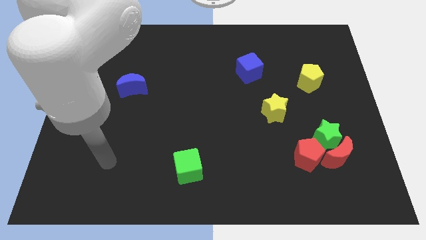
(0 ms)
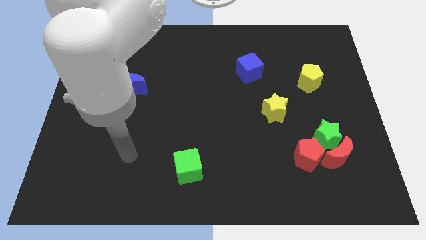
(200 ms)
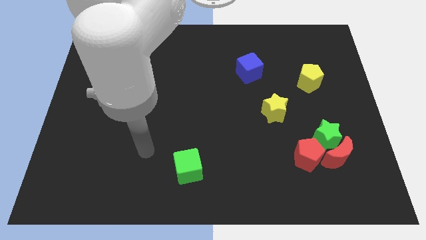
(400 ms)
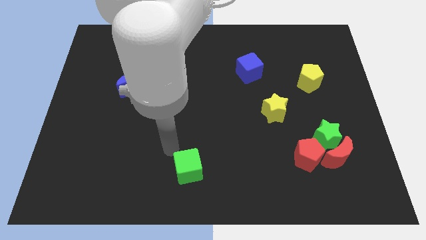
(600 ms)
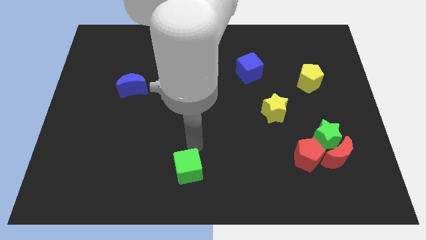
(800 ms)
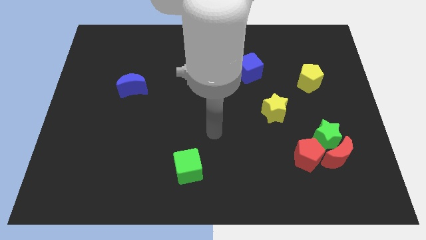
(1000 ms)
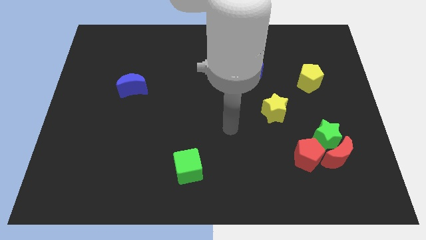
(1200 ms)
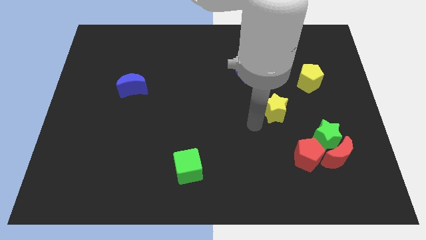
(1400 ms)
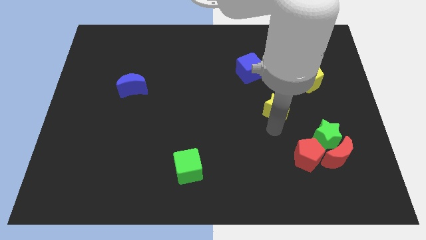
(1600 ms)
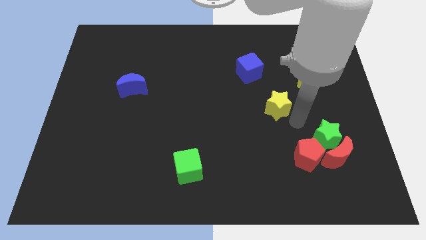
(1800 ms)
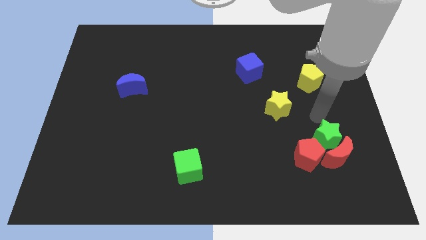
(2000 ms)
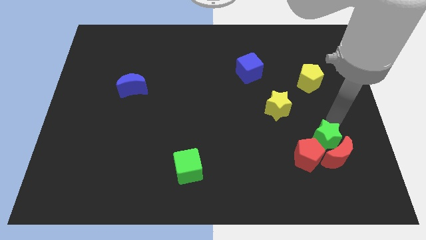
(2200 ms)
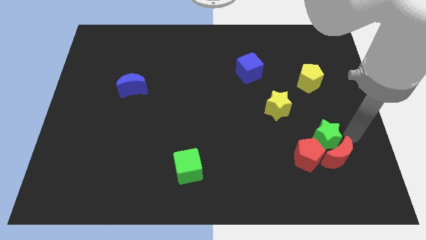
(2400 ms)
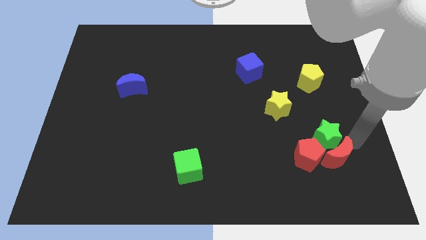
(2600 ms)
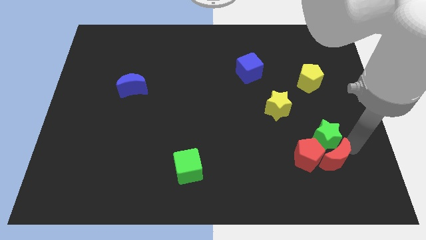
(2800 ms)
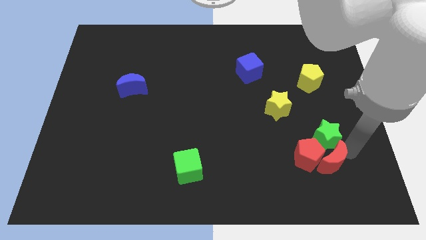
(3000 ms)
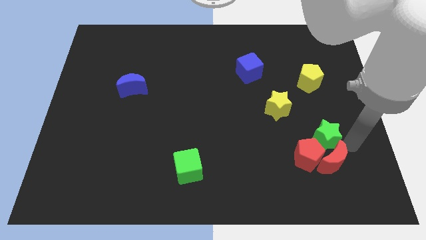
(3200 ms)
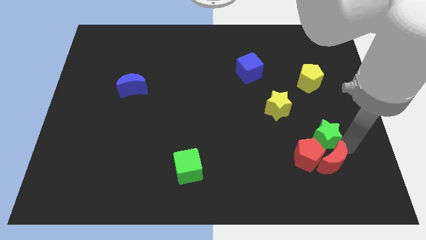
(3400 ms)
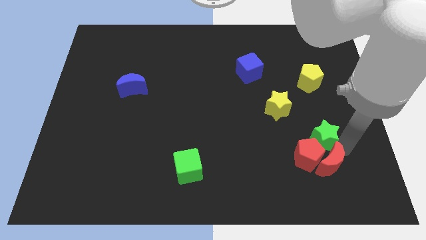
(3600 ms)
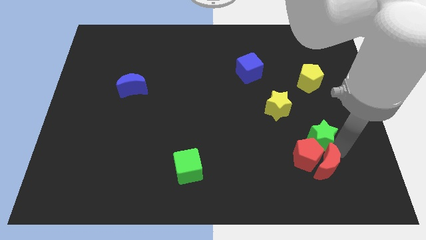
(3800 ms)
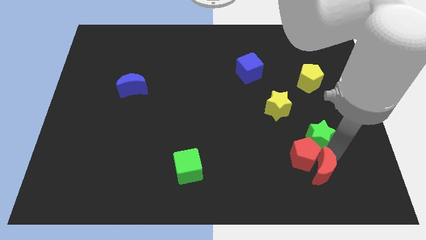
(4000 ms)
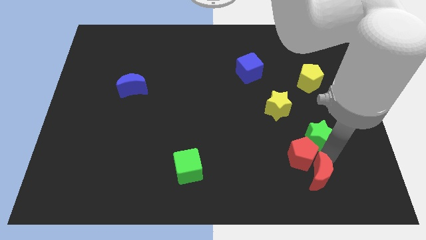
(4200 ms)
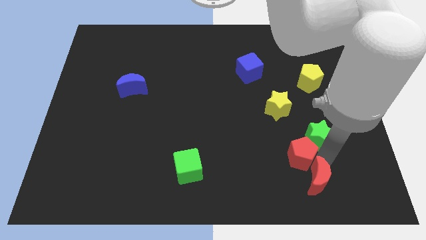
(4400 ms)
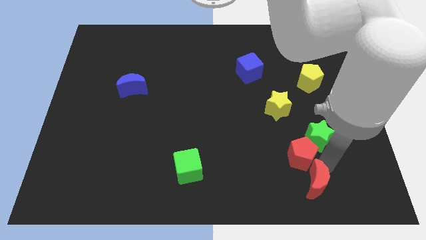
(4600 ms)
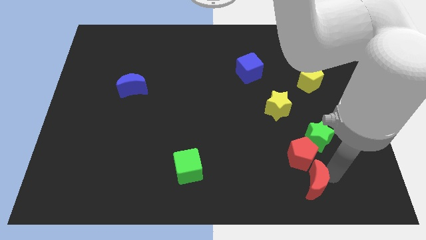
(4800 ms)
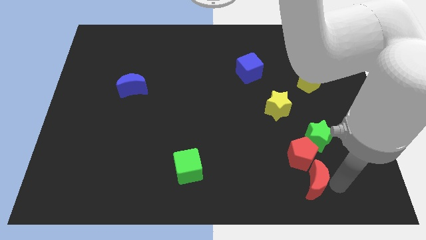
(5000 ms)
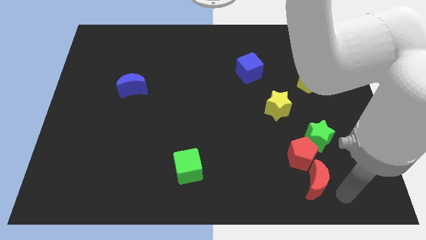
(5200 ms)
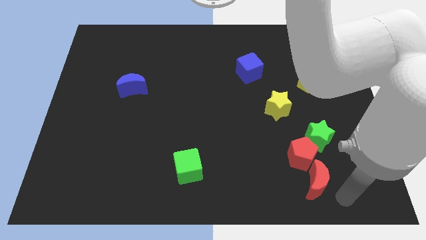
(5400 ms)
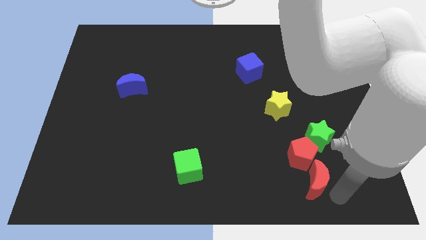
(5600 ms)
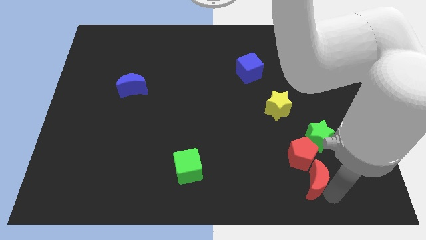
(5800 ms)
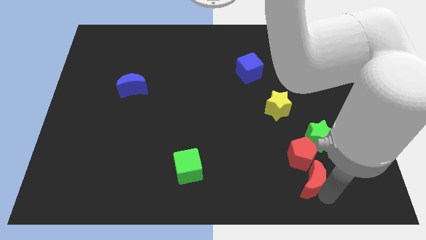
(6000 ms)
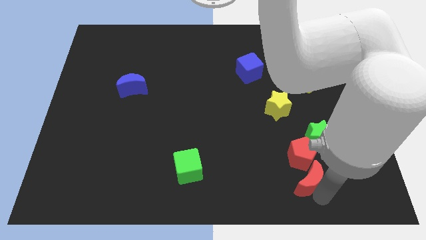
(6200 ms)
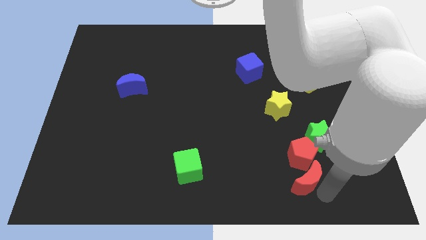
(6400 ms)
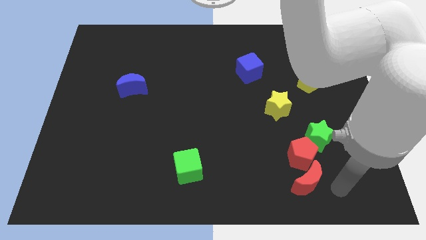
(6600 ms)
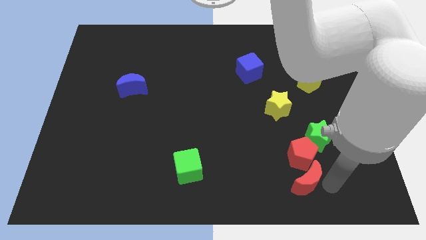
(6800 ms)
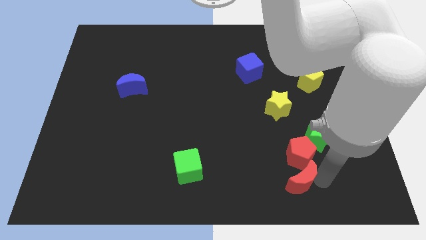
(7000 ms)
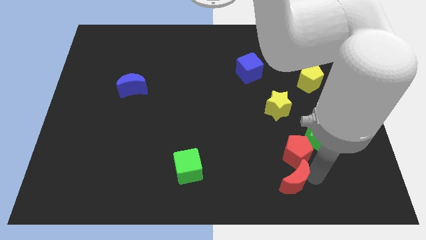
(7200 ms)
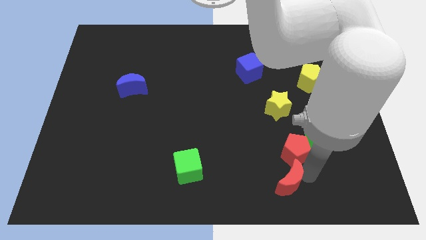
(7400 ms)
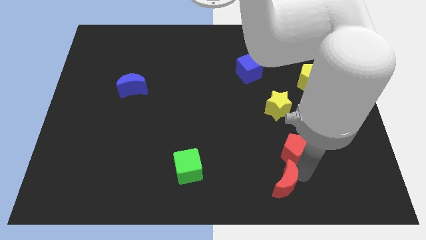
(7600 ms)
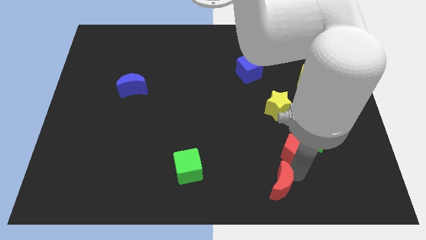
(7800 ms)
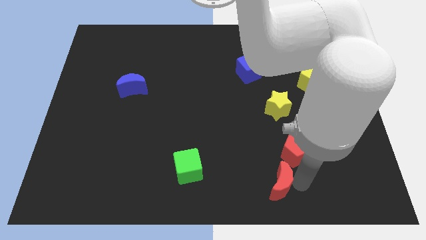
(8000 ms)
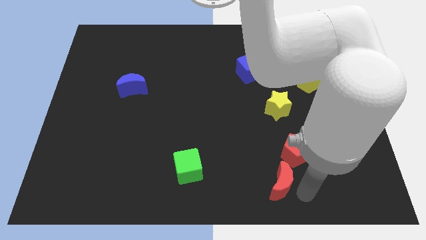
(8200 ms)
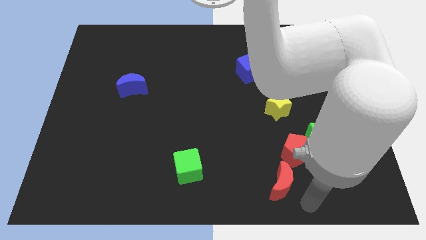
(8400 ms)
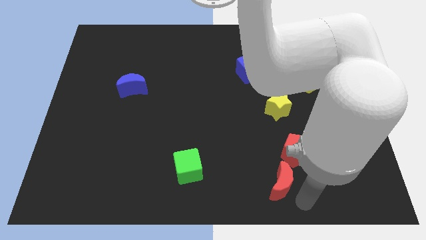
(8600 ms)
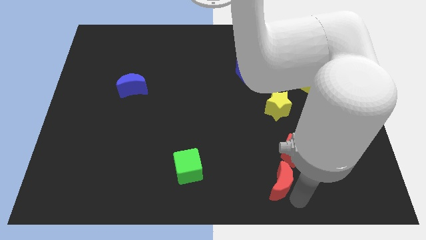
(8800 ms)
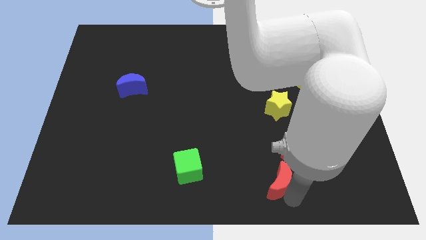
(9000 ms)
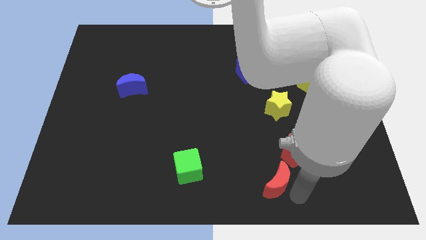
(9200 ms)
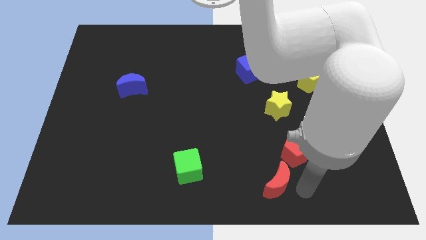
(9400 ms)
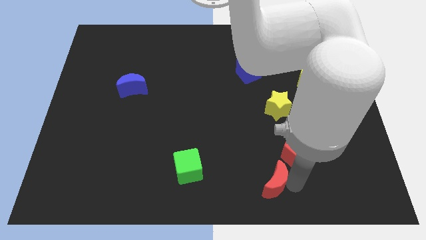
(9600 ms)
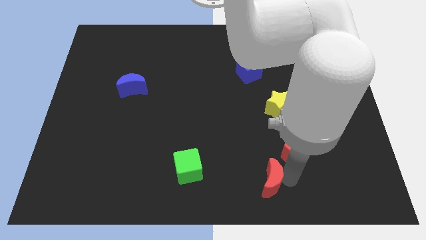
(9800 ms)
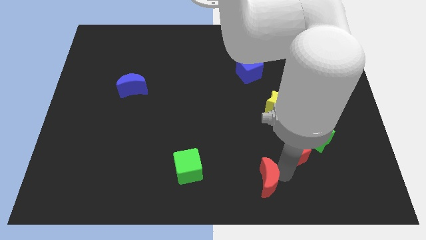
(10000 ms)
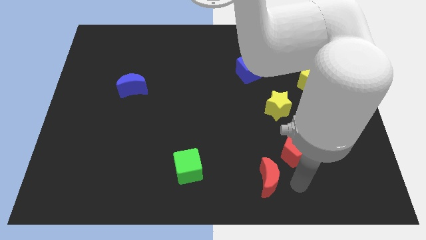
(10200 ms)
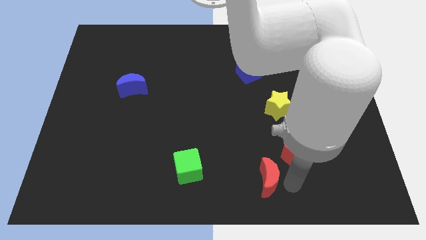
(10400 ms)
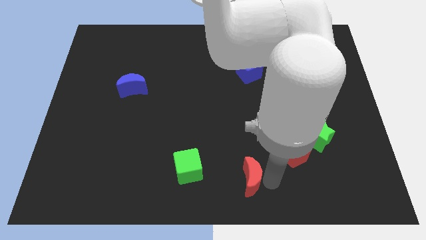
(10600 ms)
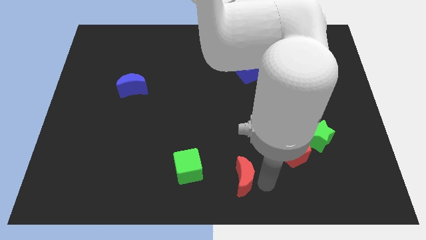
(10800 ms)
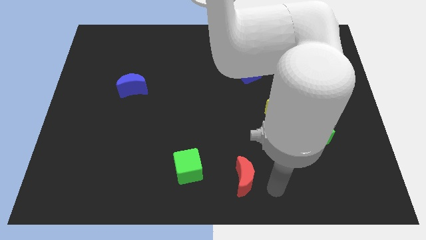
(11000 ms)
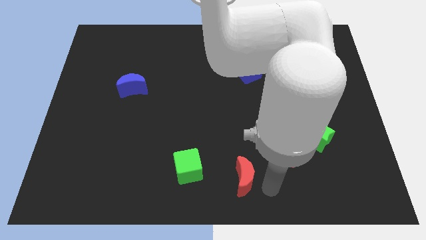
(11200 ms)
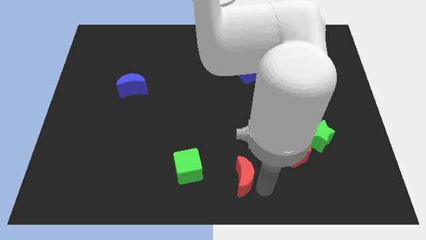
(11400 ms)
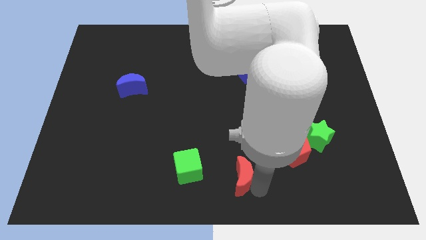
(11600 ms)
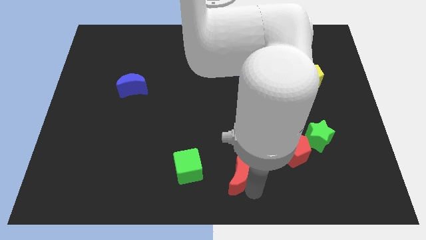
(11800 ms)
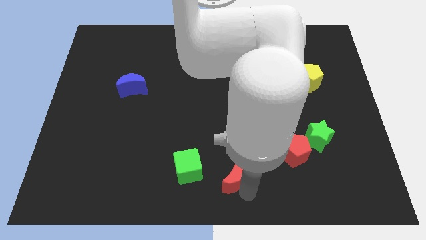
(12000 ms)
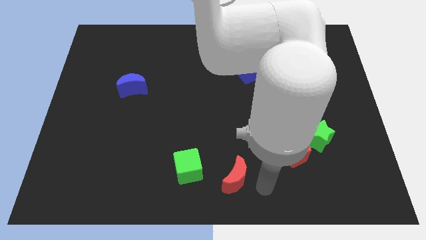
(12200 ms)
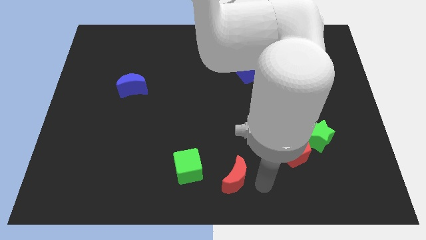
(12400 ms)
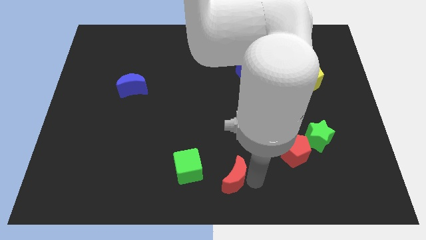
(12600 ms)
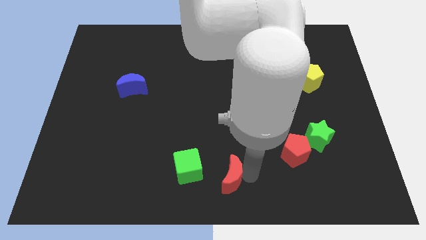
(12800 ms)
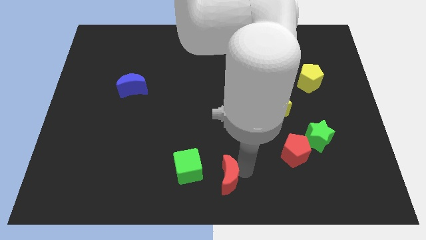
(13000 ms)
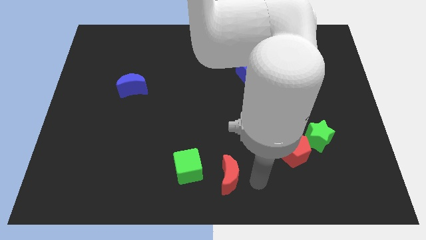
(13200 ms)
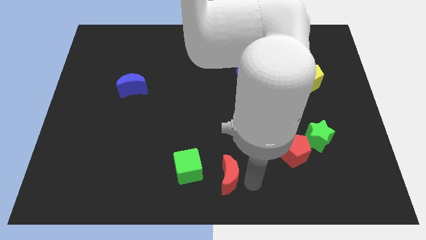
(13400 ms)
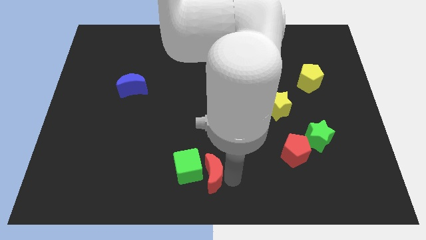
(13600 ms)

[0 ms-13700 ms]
move the red moon next to the green cube
